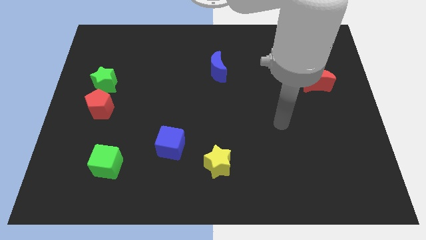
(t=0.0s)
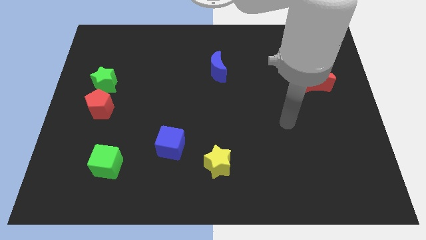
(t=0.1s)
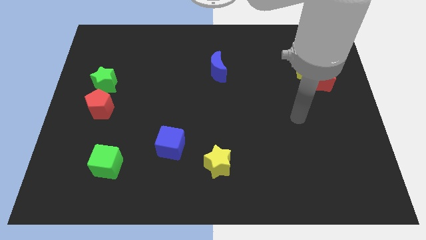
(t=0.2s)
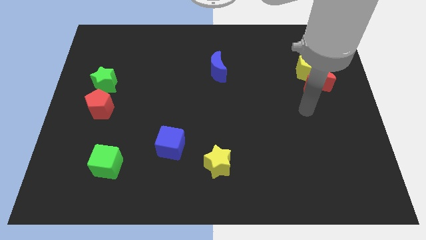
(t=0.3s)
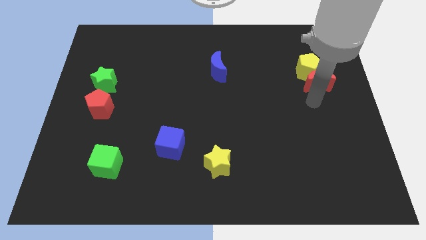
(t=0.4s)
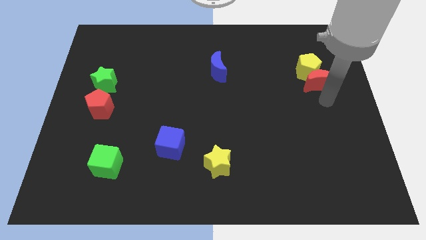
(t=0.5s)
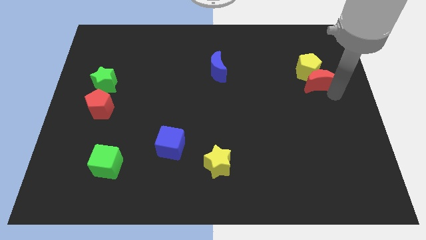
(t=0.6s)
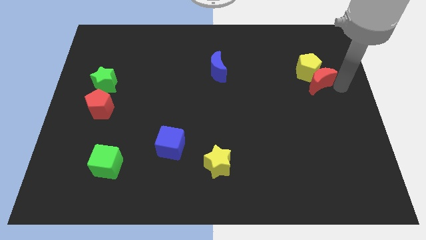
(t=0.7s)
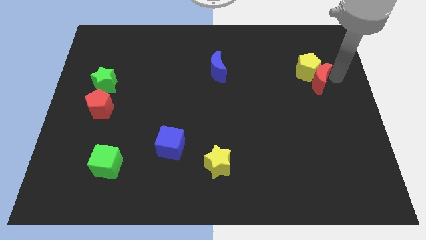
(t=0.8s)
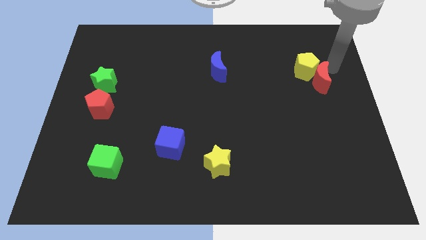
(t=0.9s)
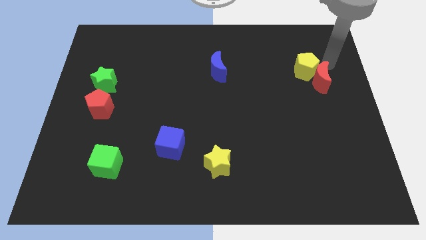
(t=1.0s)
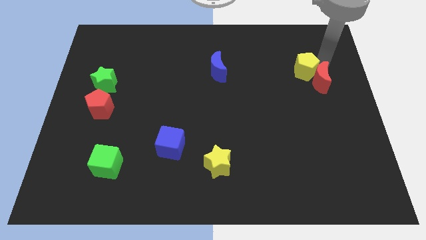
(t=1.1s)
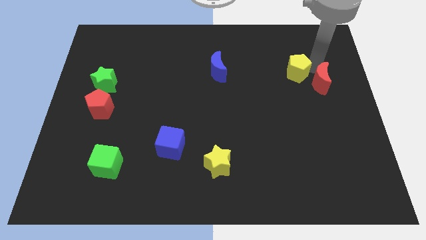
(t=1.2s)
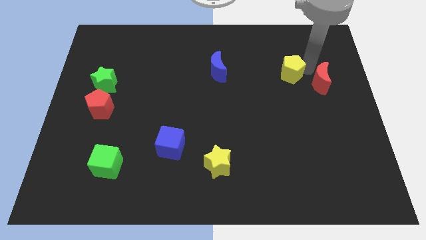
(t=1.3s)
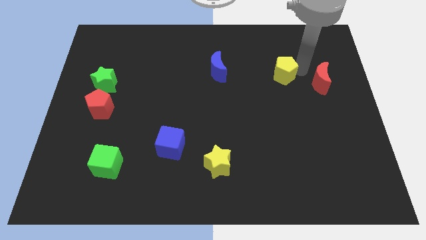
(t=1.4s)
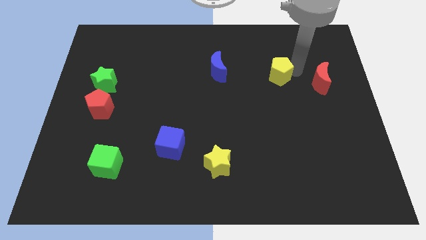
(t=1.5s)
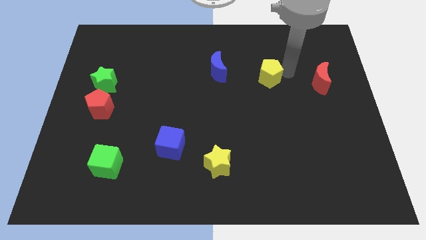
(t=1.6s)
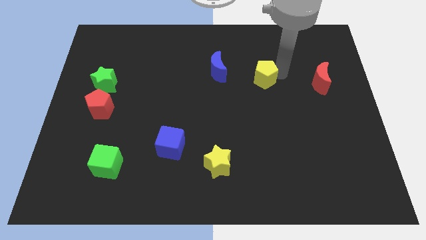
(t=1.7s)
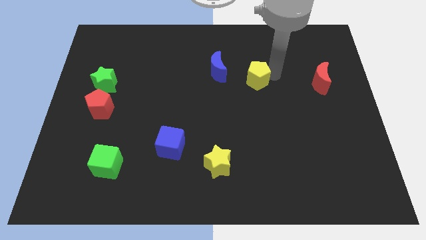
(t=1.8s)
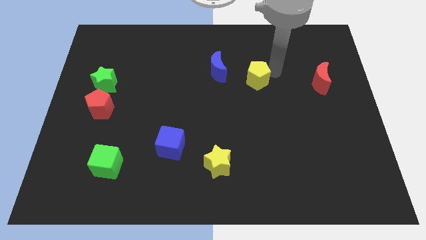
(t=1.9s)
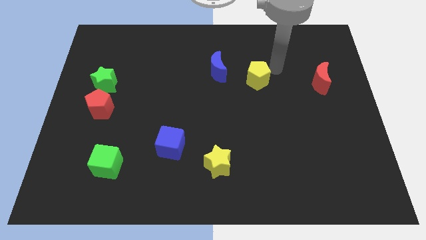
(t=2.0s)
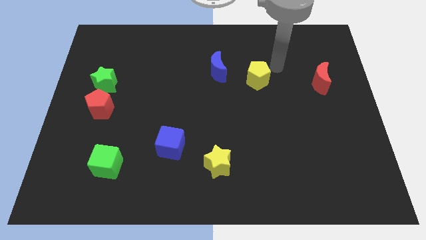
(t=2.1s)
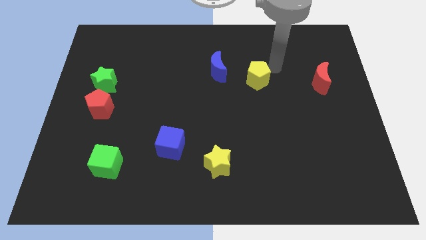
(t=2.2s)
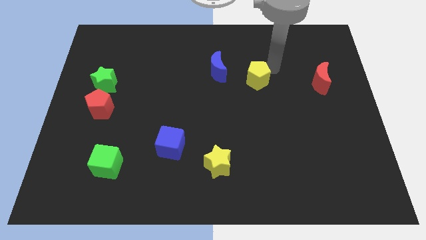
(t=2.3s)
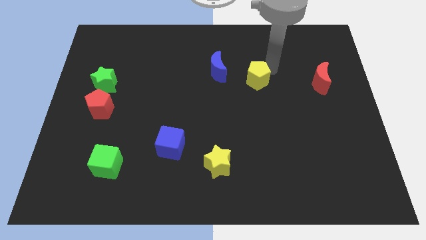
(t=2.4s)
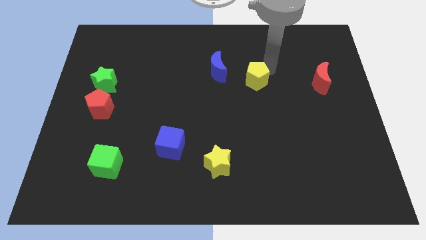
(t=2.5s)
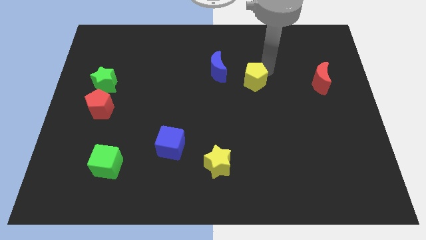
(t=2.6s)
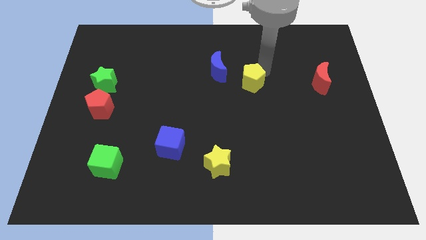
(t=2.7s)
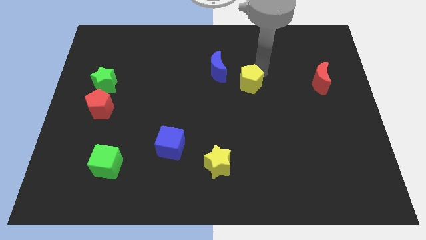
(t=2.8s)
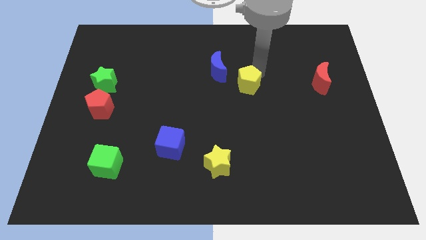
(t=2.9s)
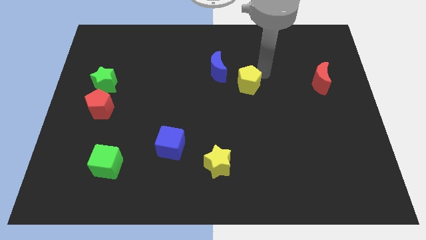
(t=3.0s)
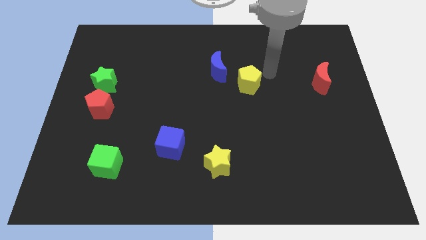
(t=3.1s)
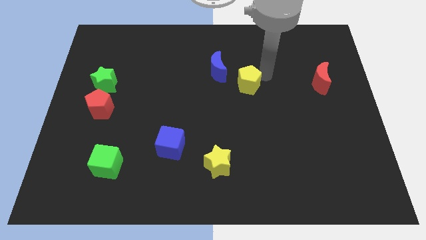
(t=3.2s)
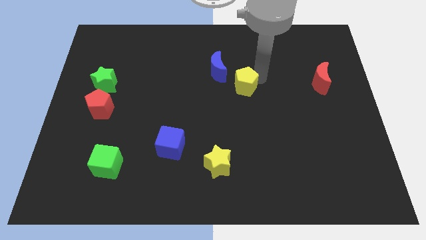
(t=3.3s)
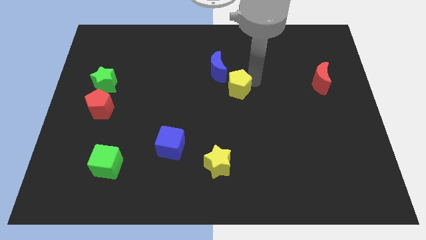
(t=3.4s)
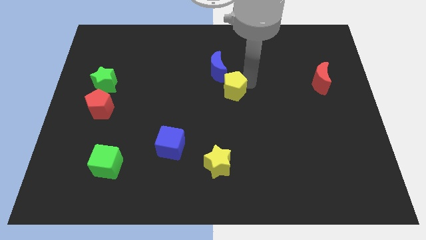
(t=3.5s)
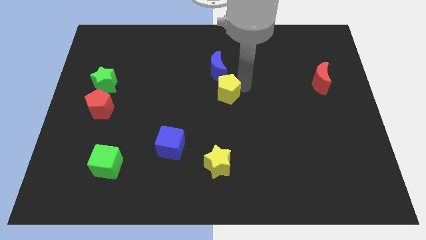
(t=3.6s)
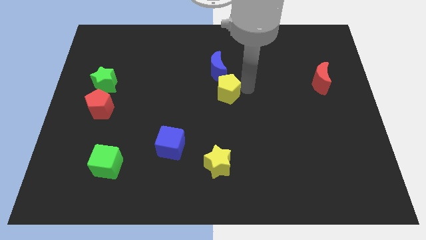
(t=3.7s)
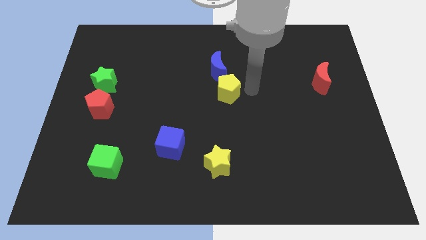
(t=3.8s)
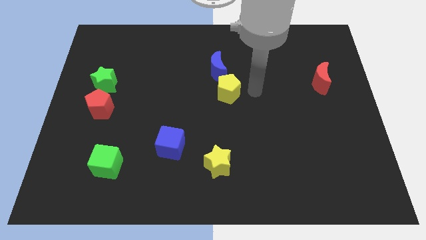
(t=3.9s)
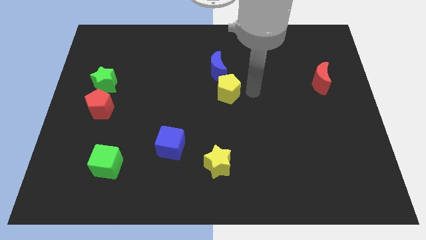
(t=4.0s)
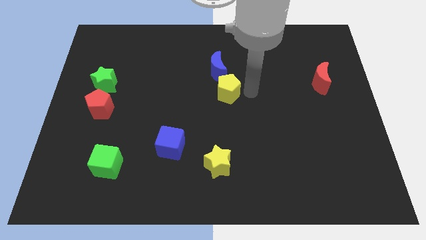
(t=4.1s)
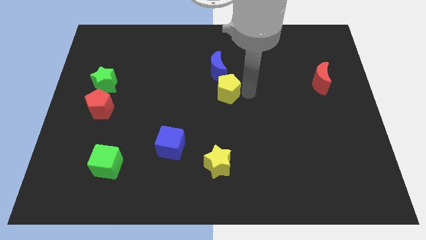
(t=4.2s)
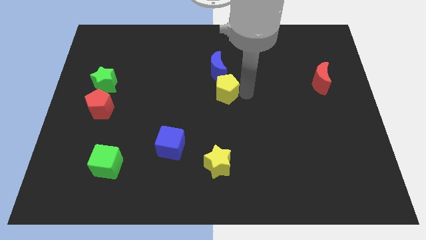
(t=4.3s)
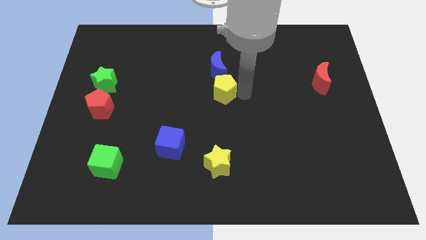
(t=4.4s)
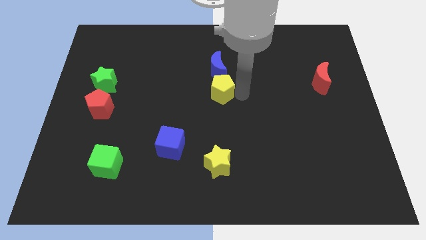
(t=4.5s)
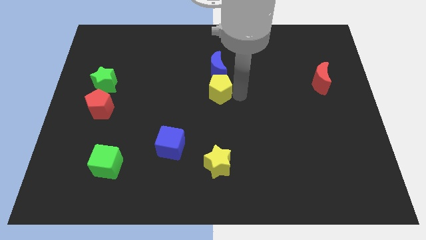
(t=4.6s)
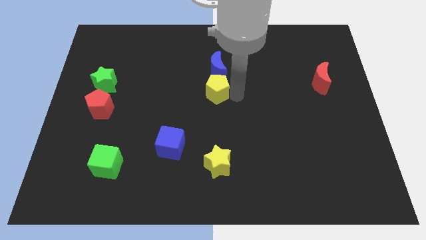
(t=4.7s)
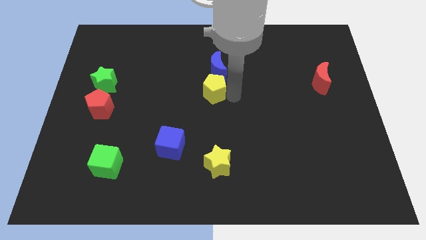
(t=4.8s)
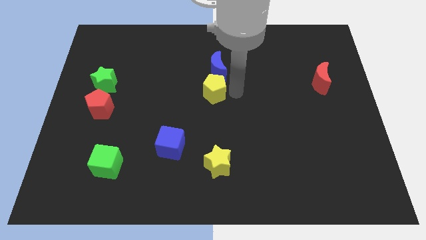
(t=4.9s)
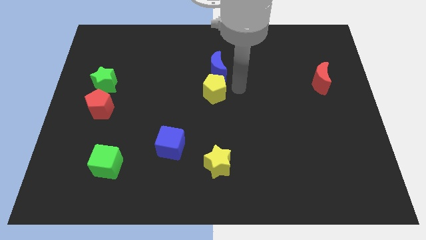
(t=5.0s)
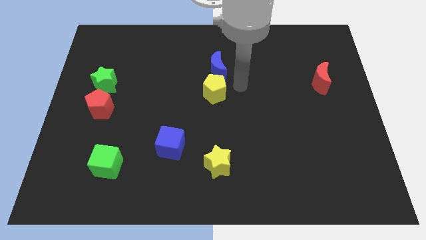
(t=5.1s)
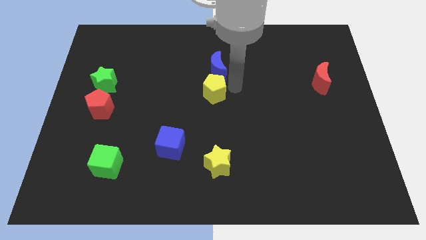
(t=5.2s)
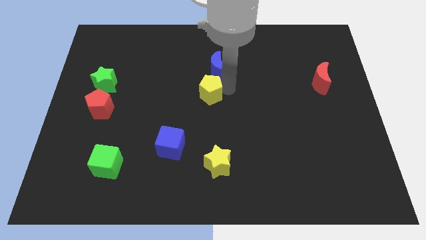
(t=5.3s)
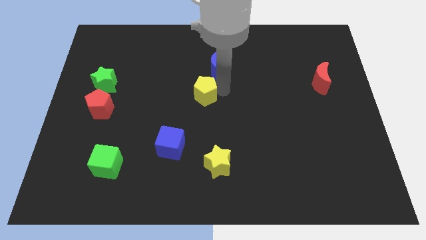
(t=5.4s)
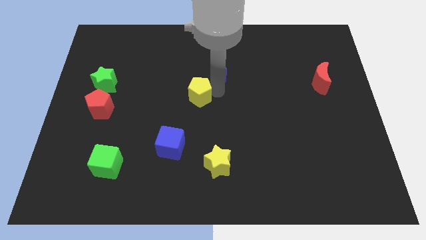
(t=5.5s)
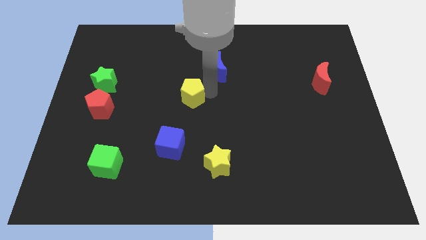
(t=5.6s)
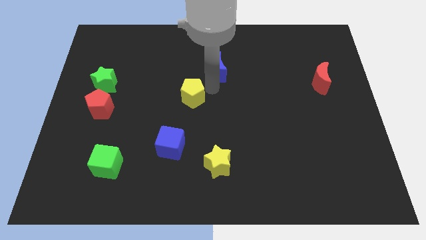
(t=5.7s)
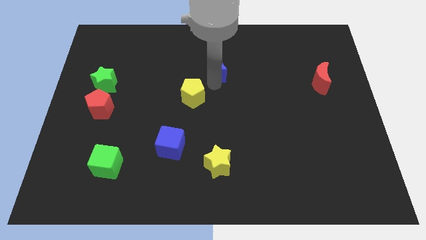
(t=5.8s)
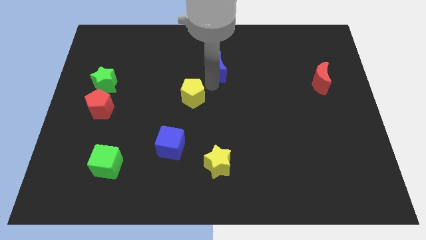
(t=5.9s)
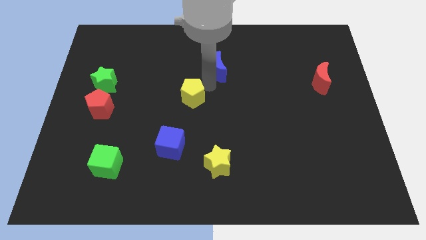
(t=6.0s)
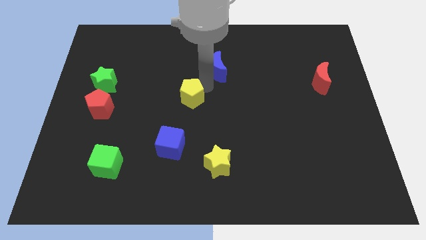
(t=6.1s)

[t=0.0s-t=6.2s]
slide the yellow pentagon above the blue cube

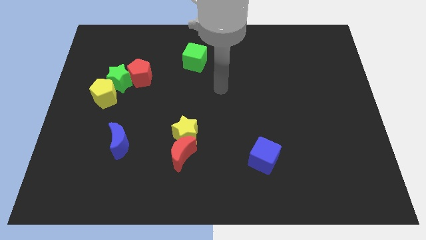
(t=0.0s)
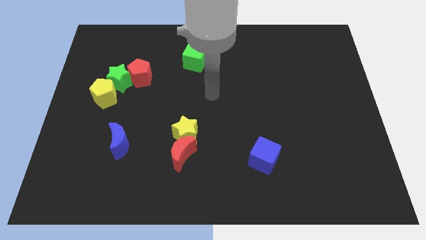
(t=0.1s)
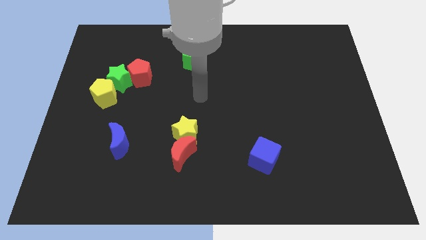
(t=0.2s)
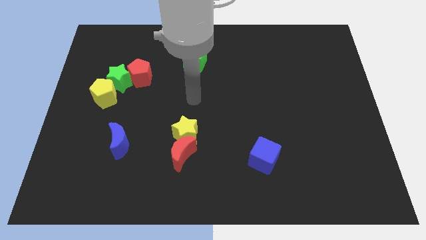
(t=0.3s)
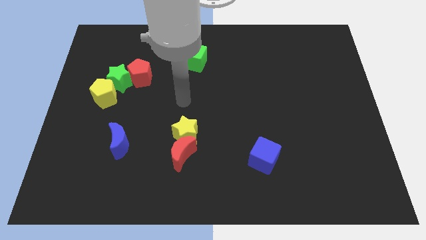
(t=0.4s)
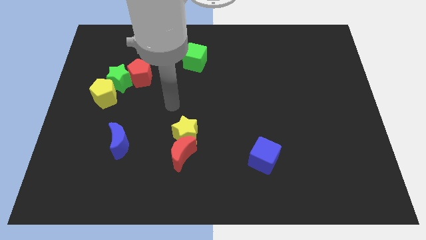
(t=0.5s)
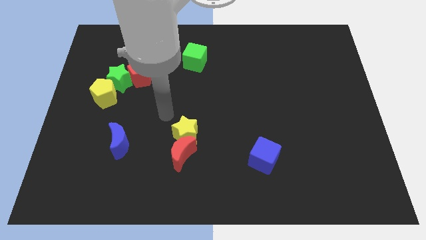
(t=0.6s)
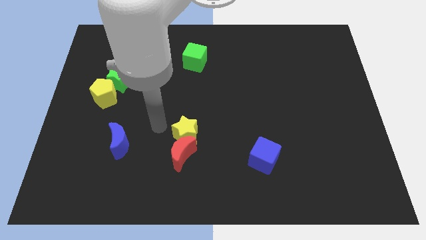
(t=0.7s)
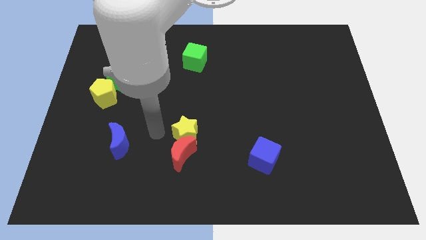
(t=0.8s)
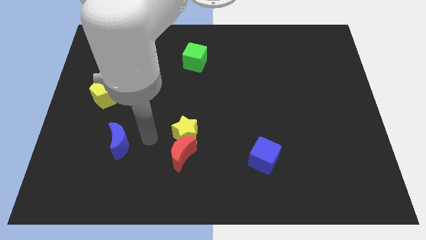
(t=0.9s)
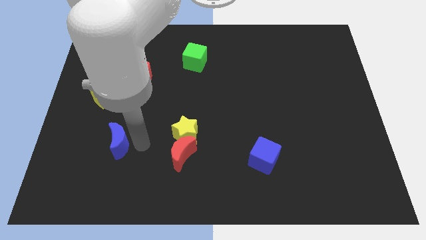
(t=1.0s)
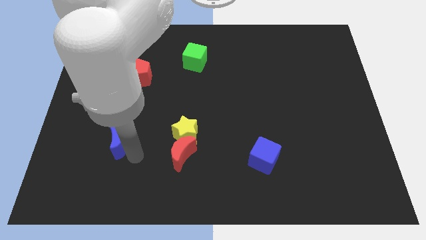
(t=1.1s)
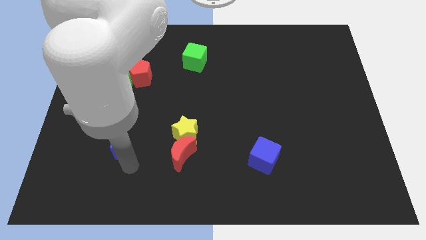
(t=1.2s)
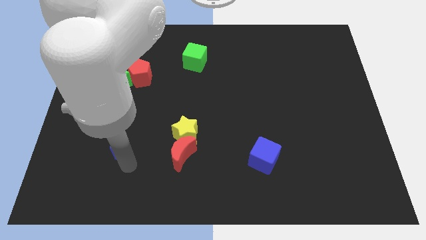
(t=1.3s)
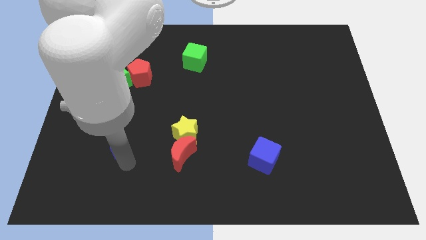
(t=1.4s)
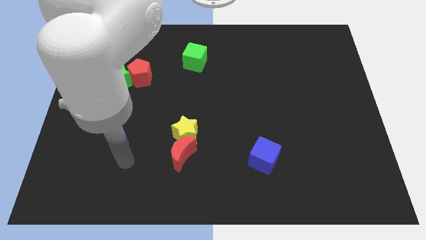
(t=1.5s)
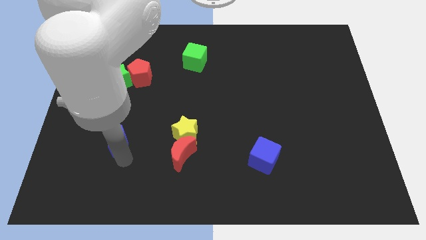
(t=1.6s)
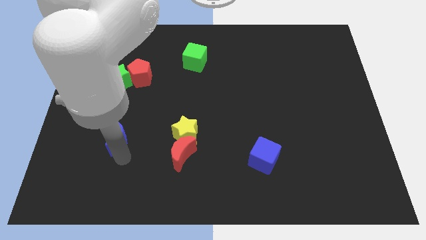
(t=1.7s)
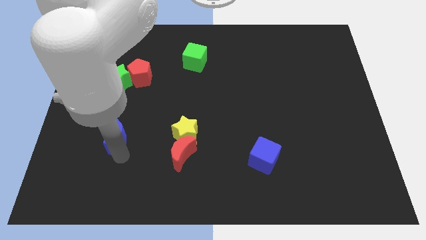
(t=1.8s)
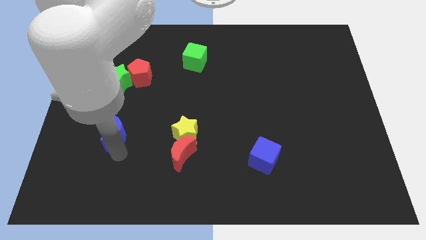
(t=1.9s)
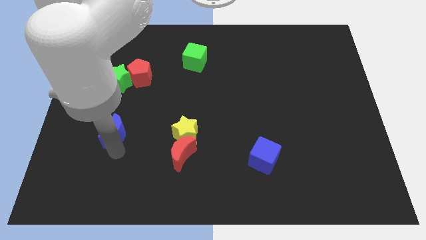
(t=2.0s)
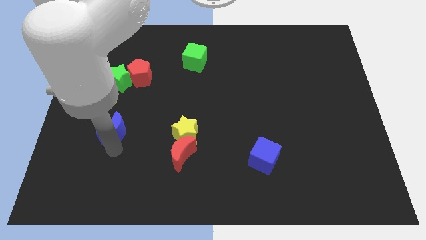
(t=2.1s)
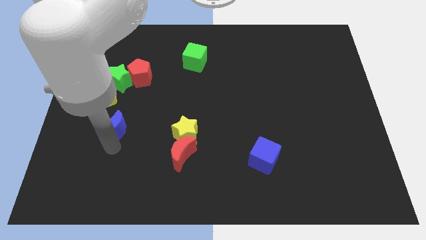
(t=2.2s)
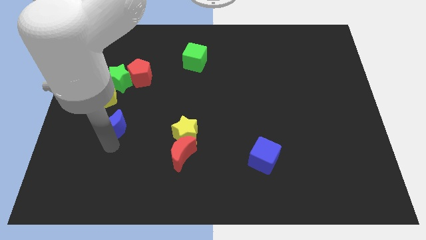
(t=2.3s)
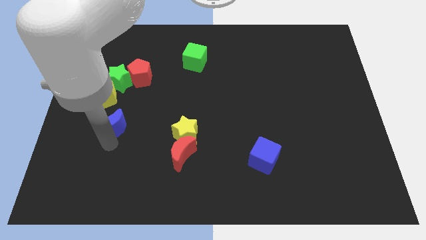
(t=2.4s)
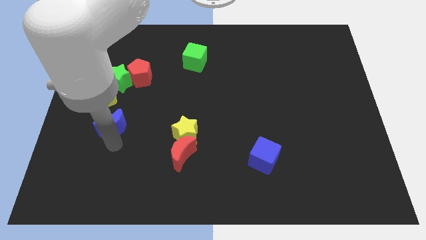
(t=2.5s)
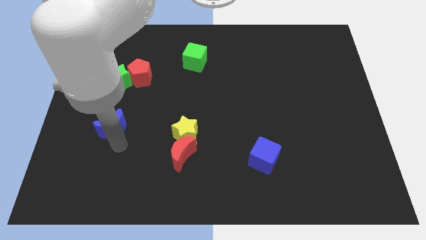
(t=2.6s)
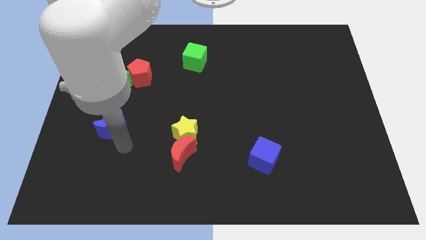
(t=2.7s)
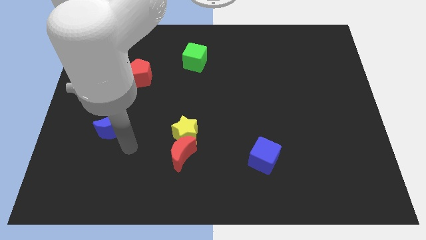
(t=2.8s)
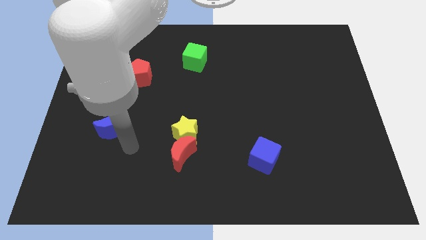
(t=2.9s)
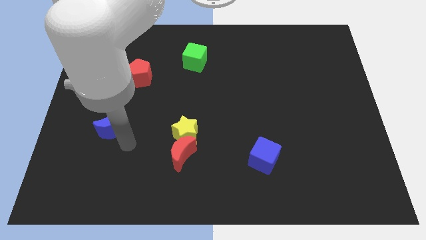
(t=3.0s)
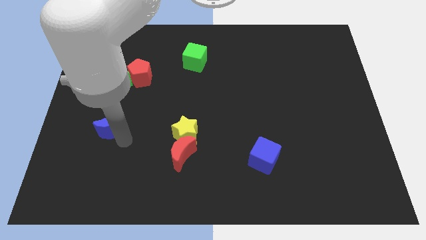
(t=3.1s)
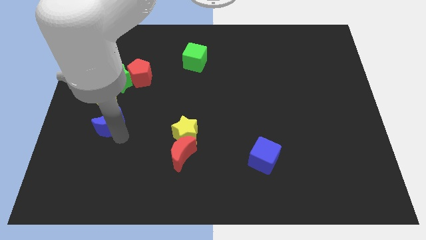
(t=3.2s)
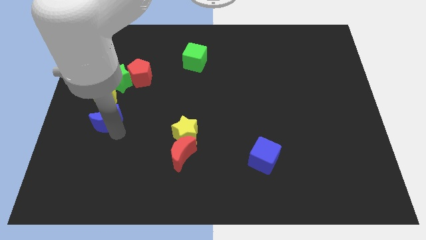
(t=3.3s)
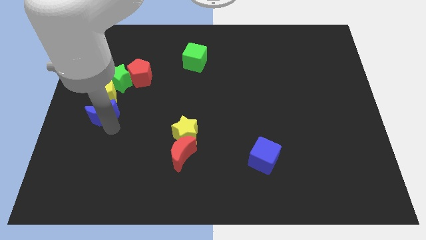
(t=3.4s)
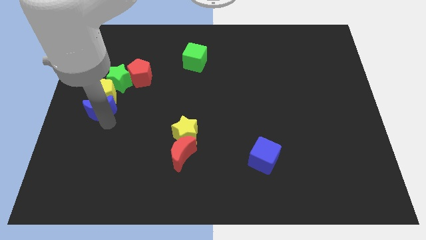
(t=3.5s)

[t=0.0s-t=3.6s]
move the blue moon to the bottom left side of the green star
